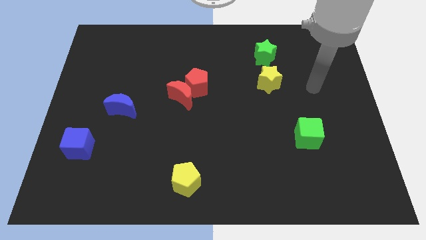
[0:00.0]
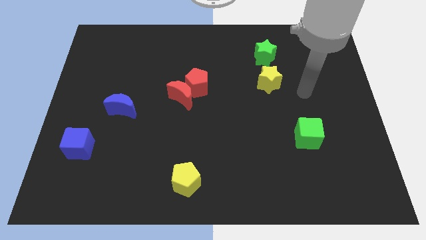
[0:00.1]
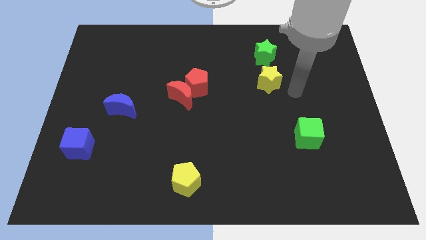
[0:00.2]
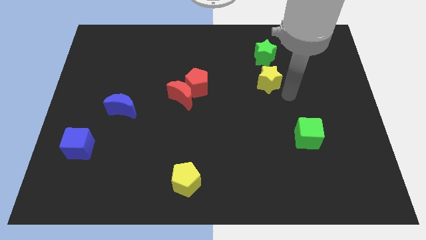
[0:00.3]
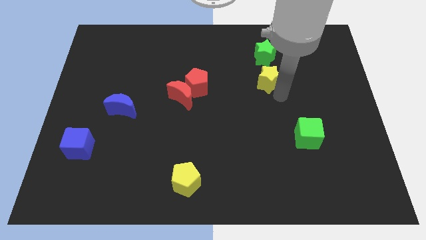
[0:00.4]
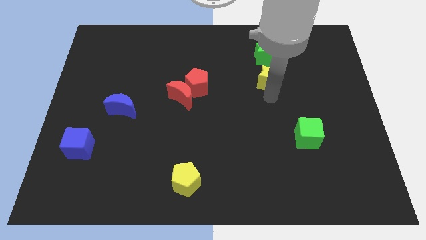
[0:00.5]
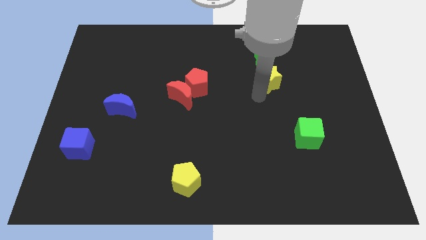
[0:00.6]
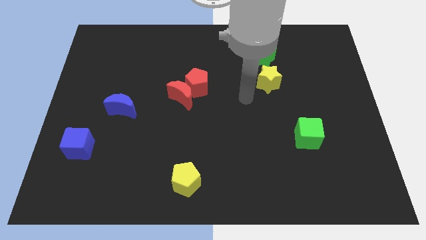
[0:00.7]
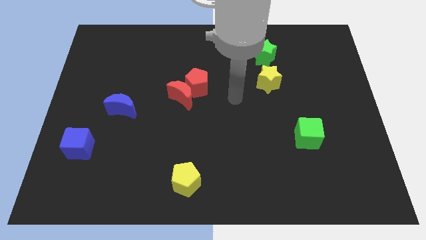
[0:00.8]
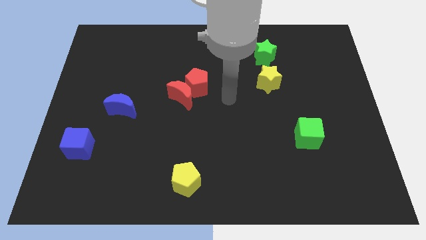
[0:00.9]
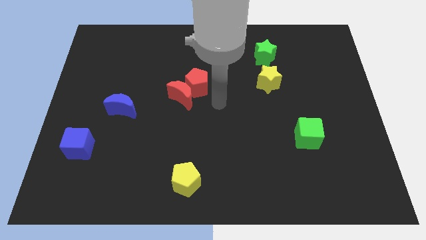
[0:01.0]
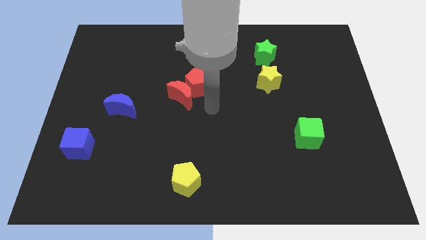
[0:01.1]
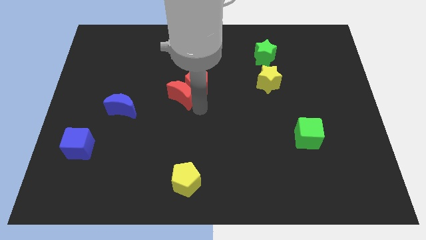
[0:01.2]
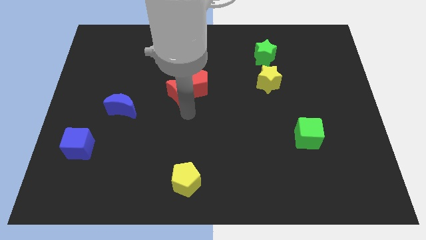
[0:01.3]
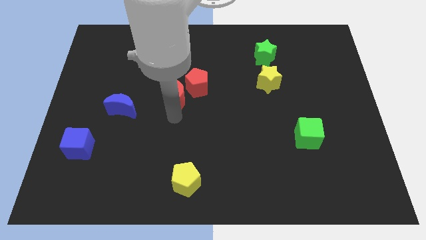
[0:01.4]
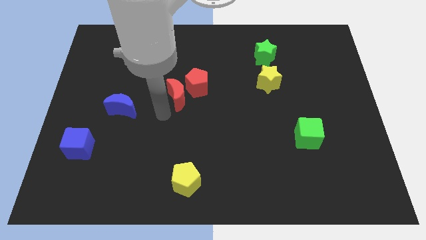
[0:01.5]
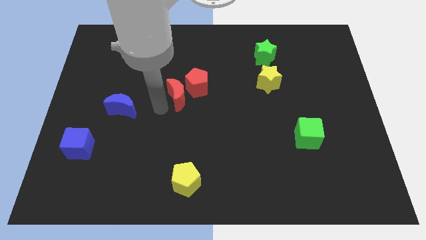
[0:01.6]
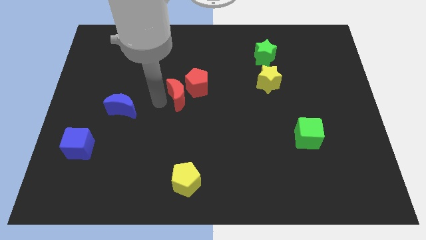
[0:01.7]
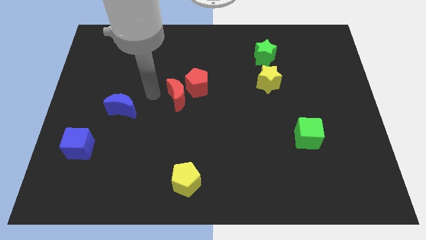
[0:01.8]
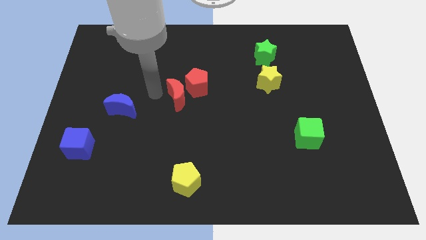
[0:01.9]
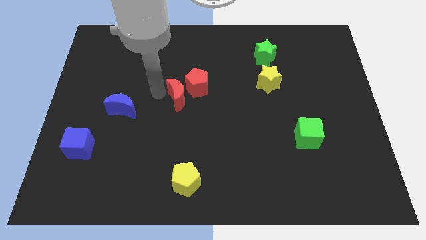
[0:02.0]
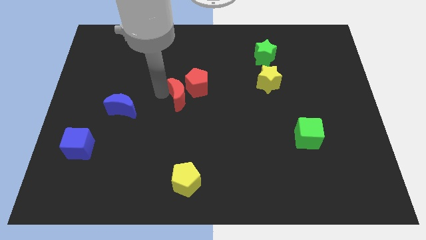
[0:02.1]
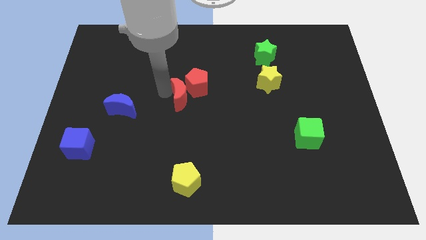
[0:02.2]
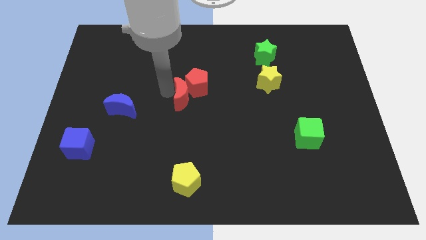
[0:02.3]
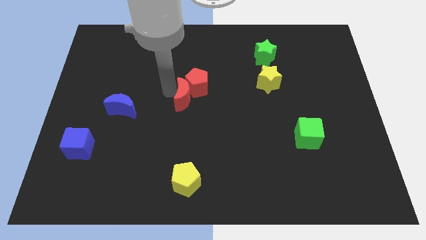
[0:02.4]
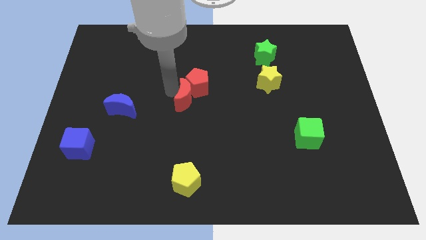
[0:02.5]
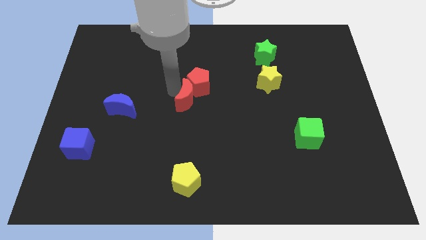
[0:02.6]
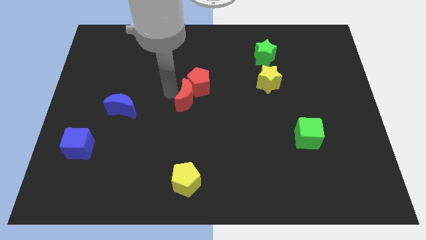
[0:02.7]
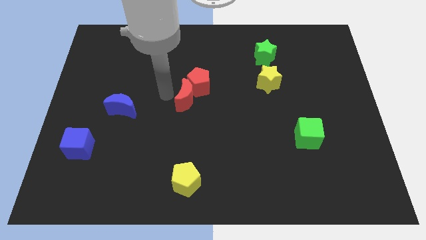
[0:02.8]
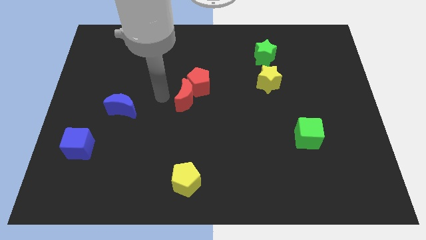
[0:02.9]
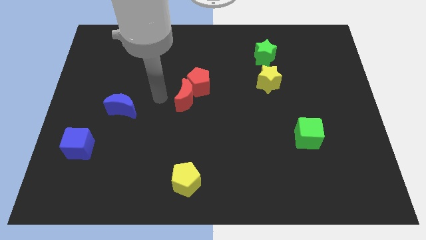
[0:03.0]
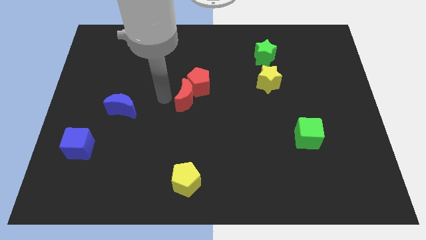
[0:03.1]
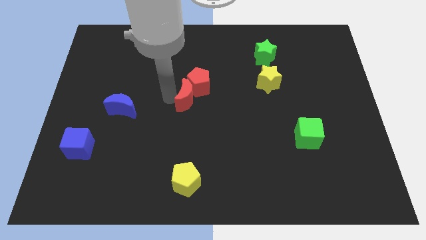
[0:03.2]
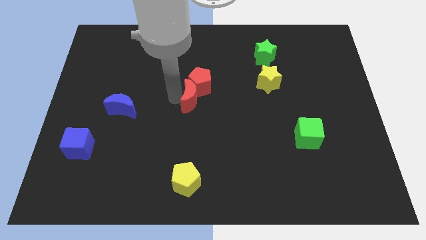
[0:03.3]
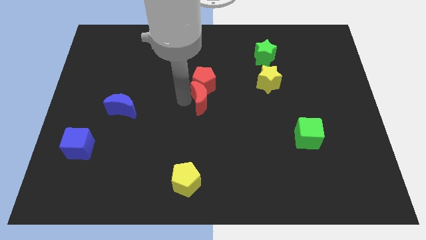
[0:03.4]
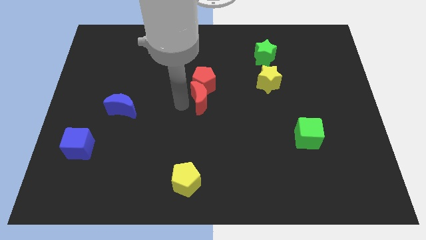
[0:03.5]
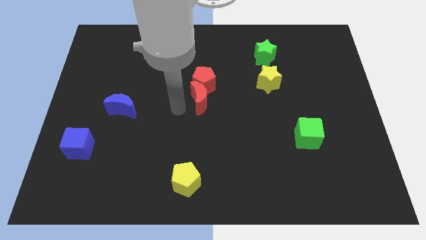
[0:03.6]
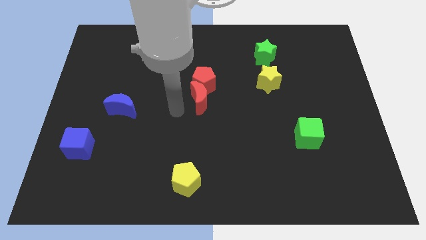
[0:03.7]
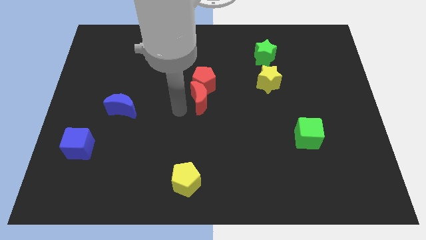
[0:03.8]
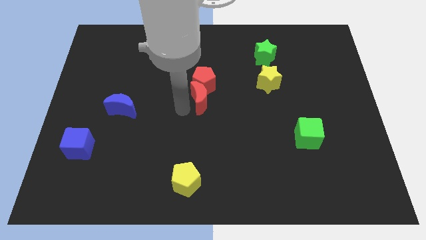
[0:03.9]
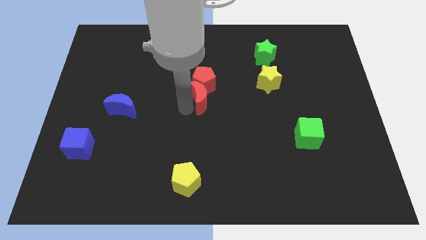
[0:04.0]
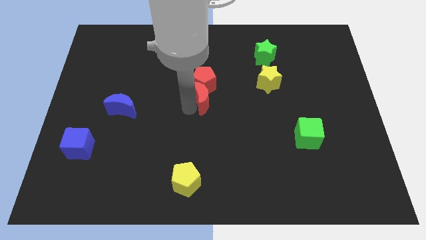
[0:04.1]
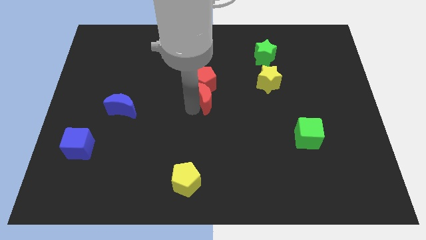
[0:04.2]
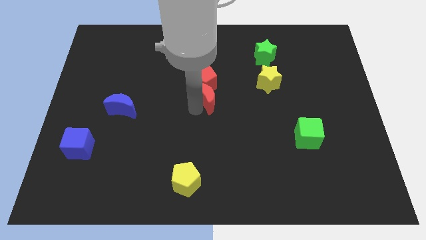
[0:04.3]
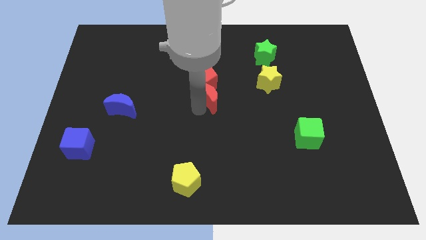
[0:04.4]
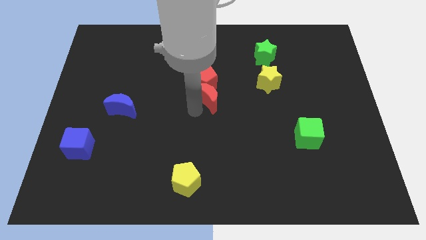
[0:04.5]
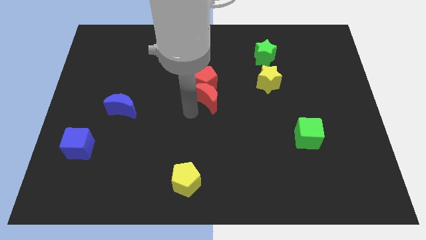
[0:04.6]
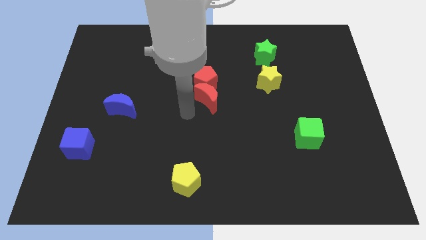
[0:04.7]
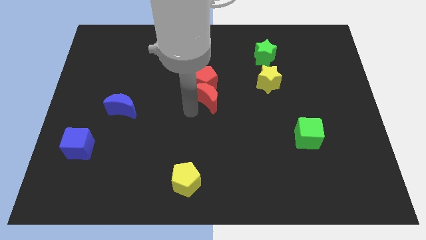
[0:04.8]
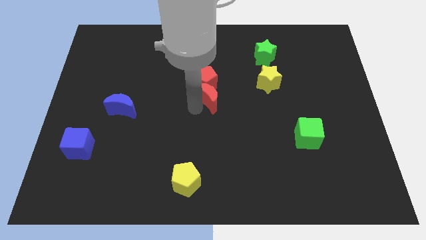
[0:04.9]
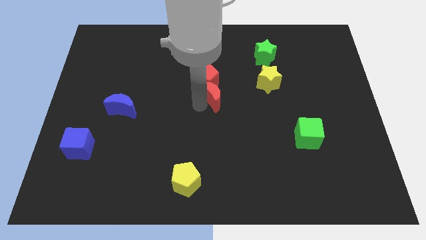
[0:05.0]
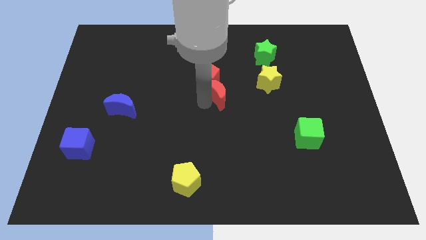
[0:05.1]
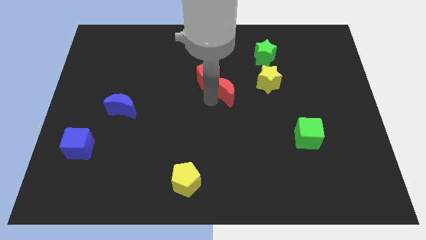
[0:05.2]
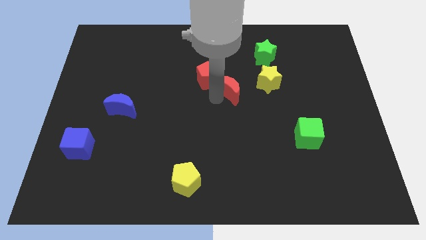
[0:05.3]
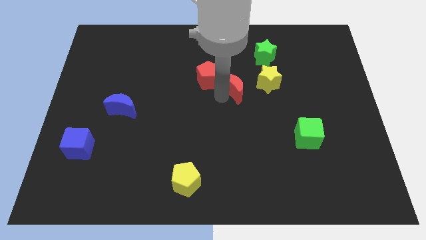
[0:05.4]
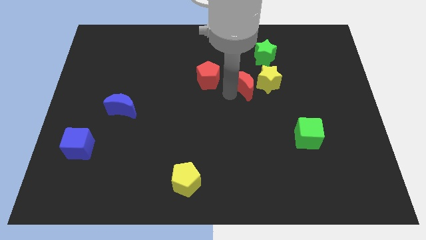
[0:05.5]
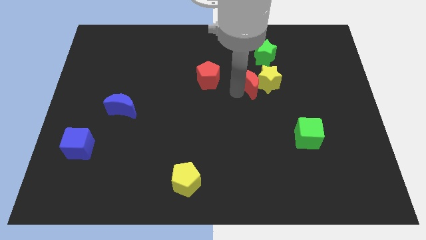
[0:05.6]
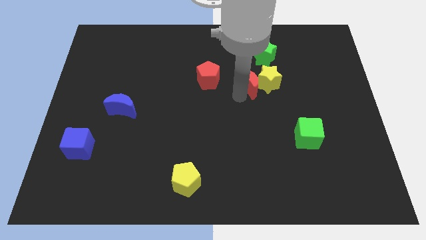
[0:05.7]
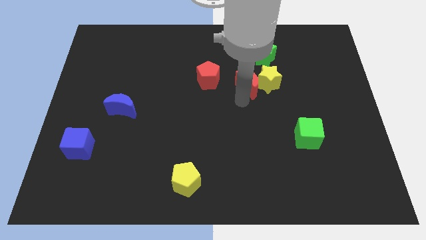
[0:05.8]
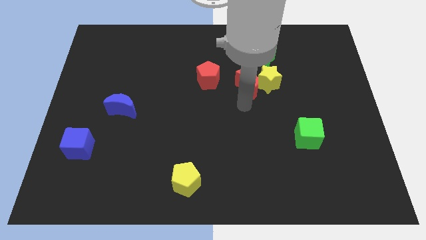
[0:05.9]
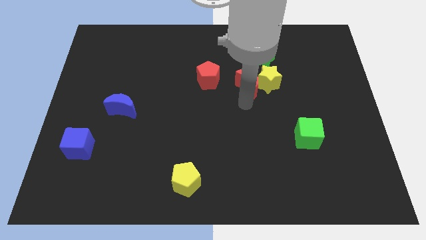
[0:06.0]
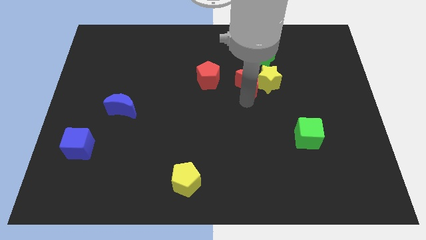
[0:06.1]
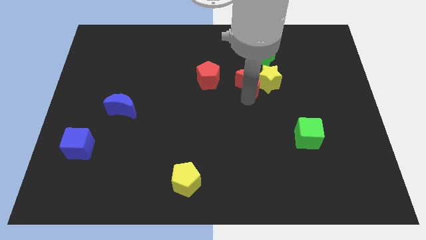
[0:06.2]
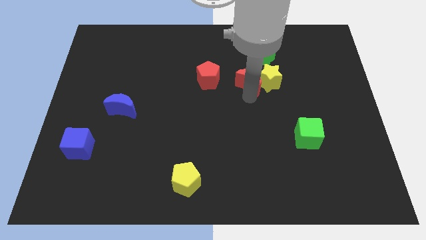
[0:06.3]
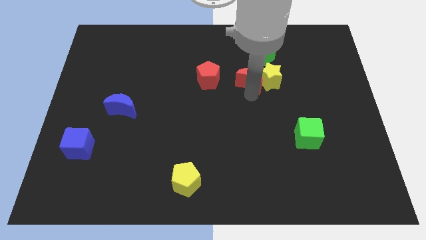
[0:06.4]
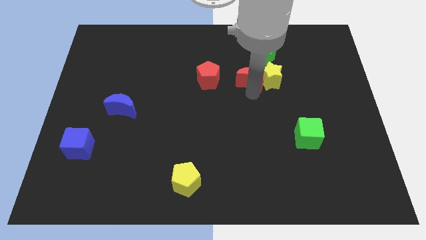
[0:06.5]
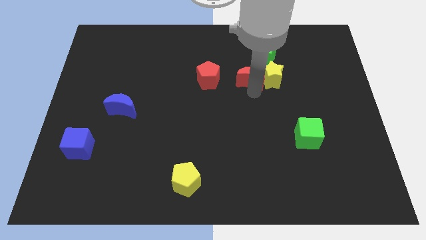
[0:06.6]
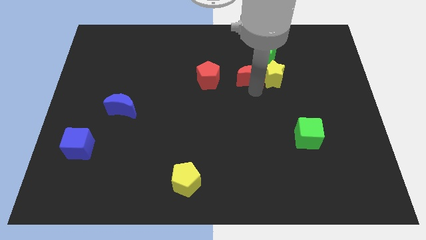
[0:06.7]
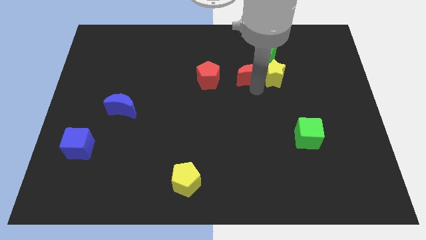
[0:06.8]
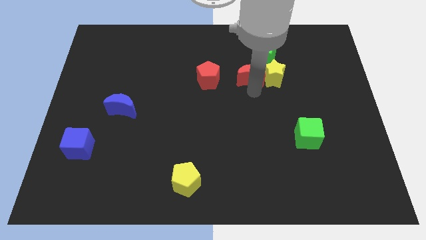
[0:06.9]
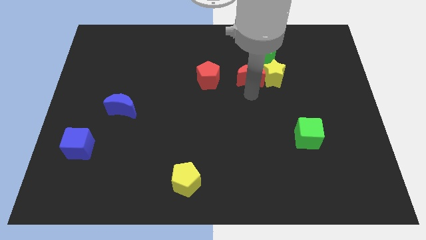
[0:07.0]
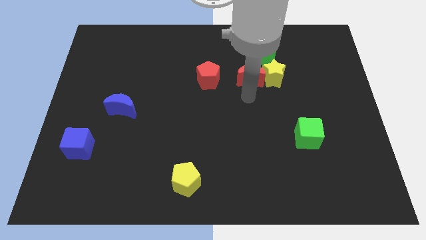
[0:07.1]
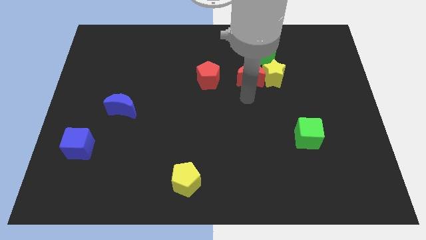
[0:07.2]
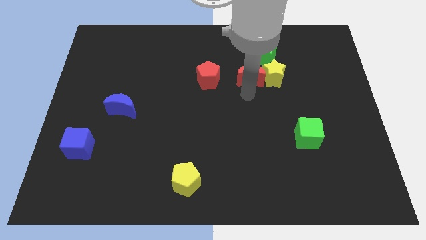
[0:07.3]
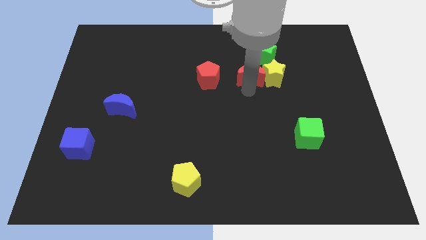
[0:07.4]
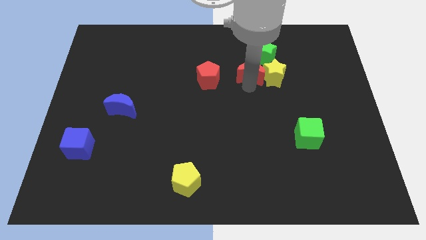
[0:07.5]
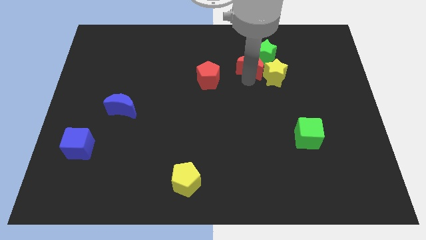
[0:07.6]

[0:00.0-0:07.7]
put the red moon towards the green star
